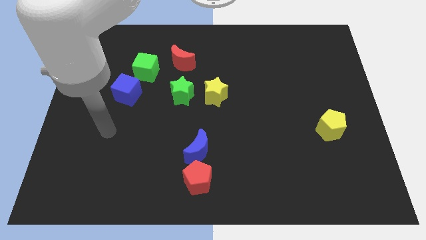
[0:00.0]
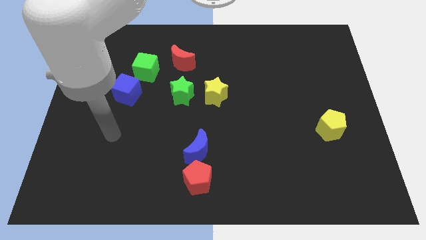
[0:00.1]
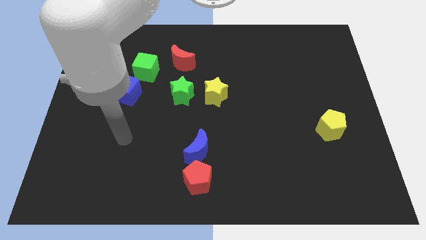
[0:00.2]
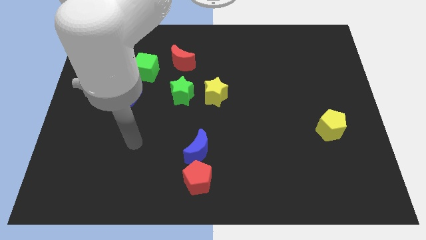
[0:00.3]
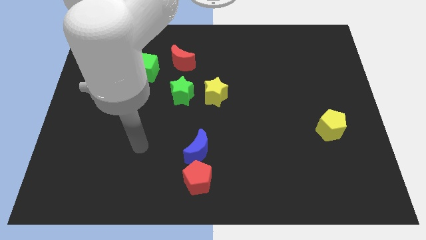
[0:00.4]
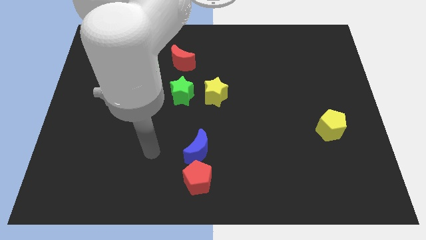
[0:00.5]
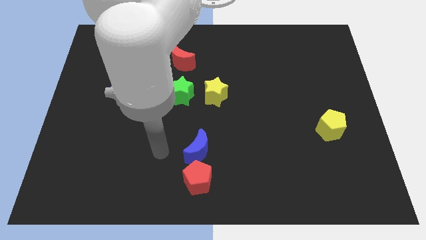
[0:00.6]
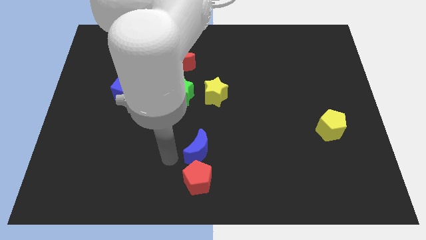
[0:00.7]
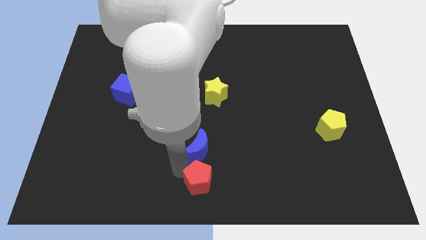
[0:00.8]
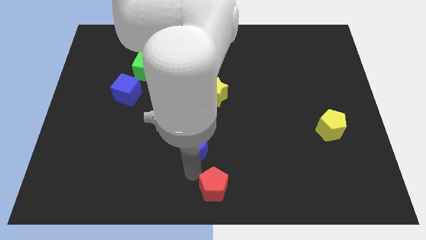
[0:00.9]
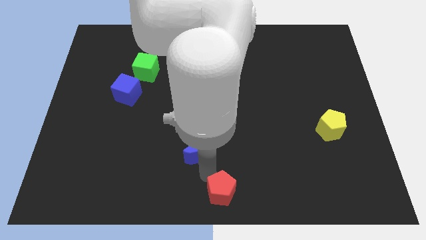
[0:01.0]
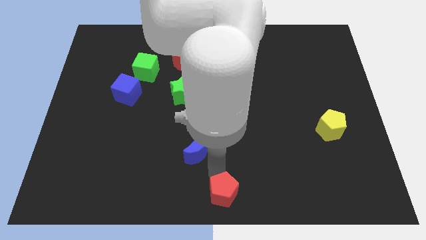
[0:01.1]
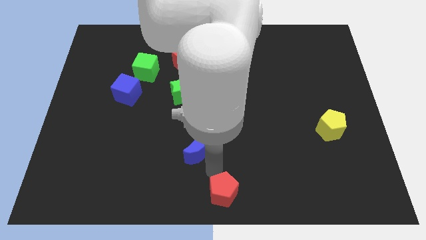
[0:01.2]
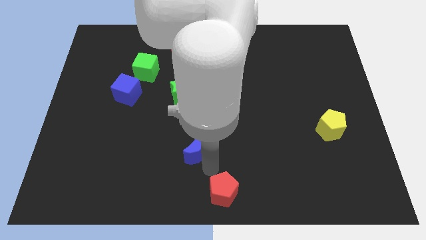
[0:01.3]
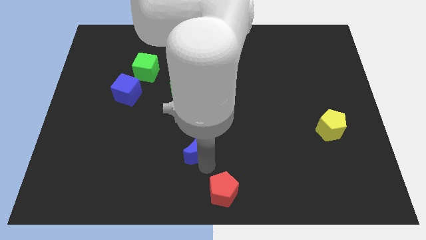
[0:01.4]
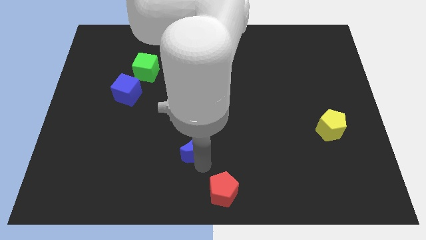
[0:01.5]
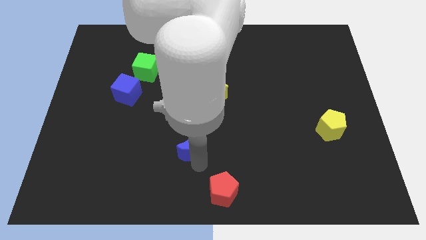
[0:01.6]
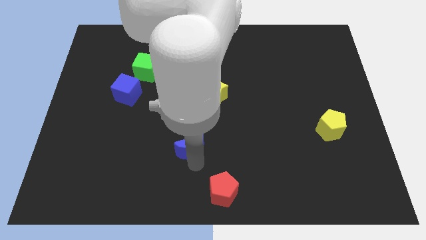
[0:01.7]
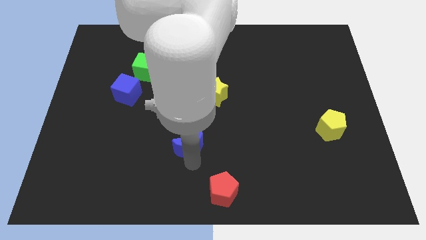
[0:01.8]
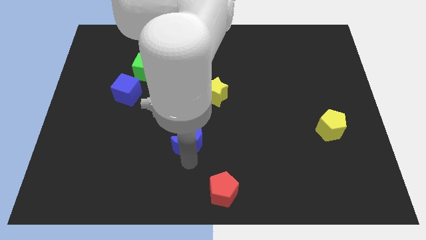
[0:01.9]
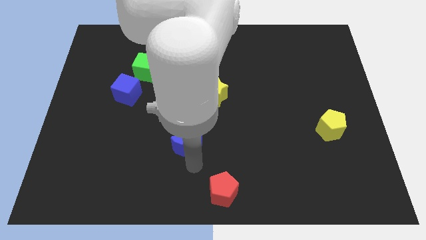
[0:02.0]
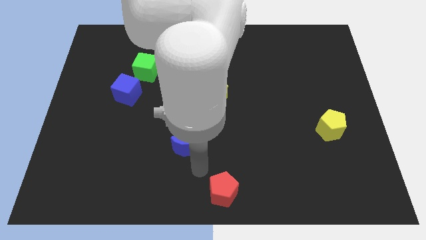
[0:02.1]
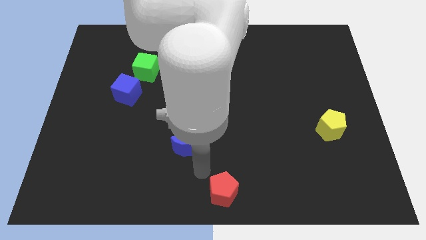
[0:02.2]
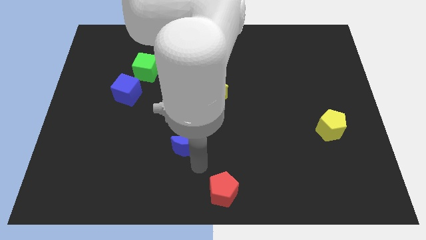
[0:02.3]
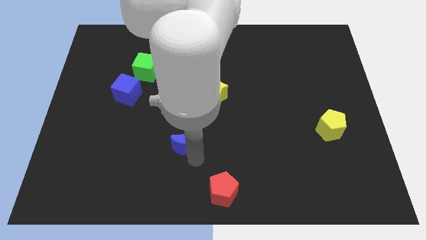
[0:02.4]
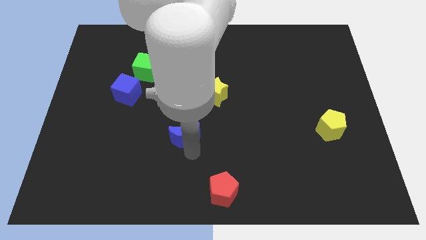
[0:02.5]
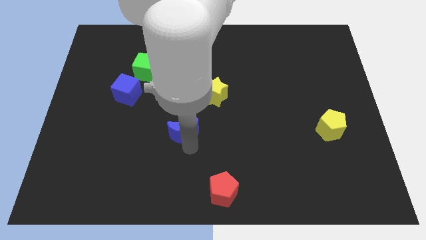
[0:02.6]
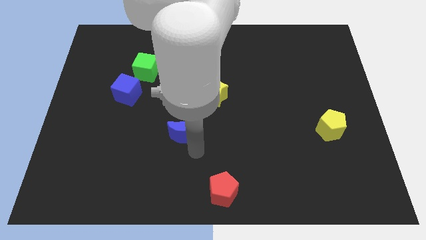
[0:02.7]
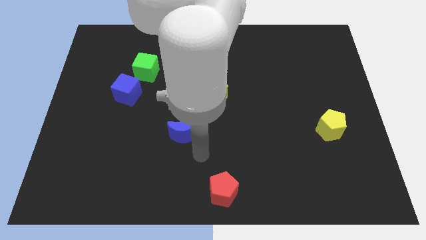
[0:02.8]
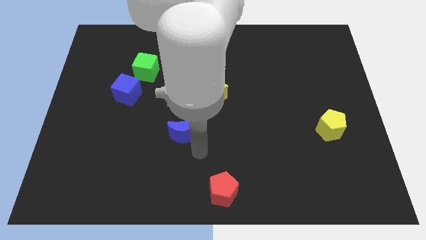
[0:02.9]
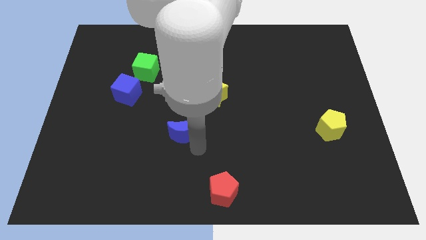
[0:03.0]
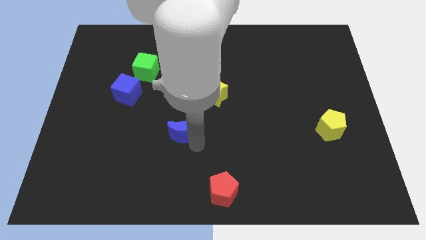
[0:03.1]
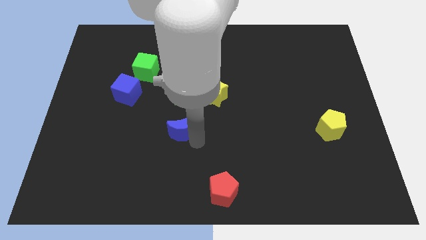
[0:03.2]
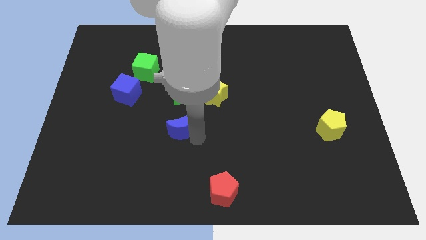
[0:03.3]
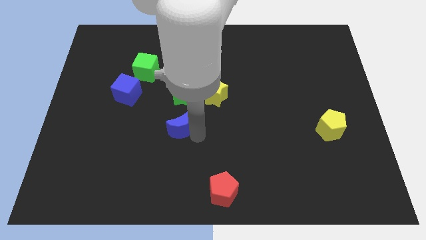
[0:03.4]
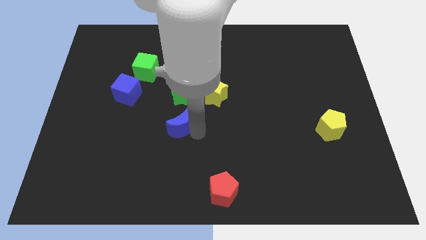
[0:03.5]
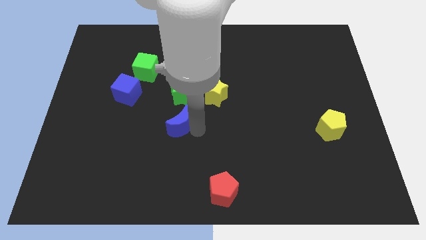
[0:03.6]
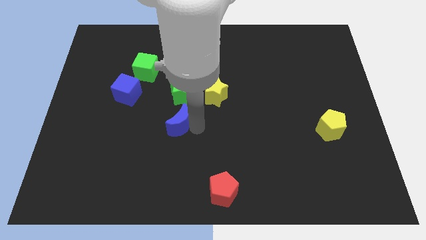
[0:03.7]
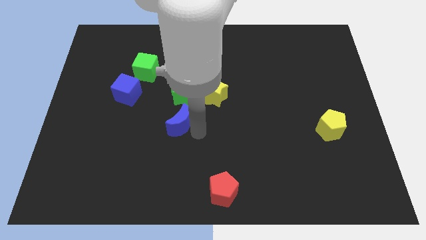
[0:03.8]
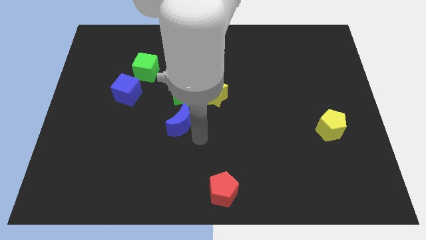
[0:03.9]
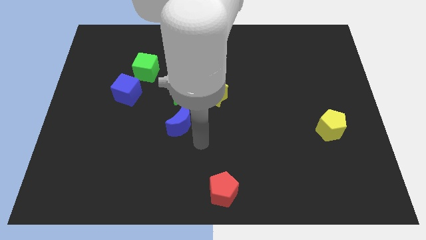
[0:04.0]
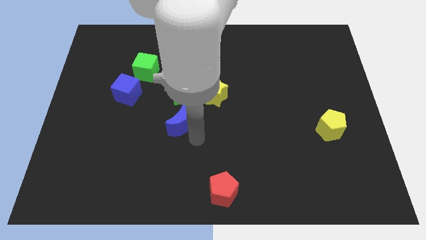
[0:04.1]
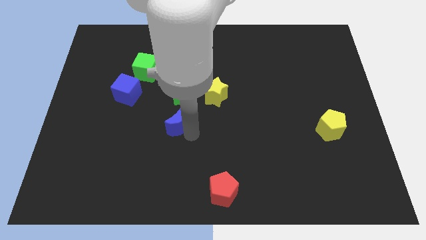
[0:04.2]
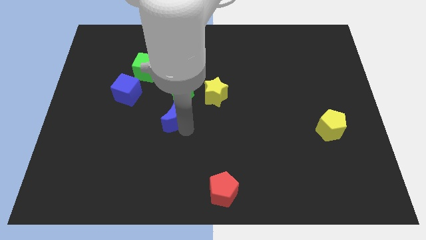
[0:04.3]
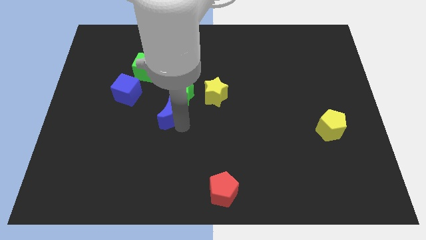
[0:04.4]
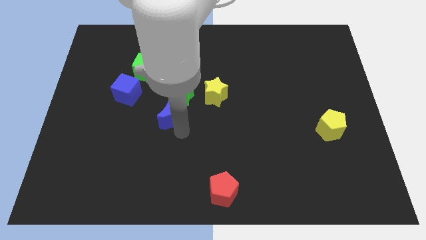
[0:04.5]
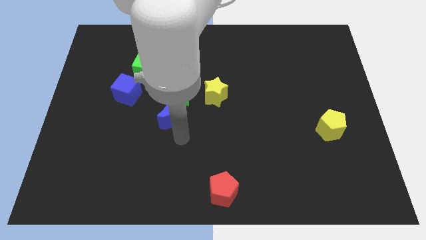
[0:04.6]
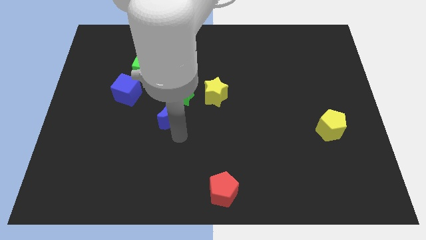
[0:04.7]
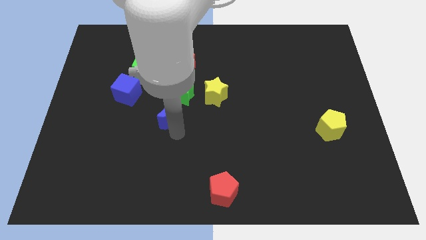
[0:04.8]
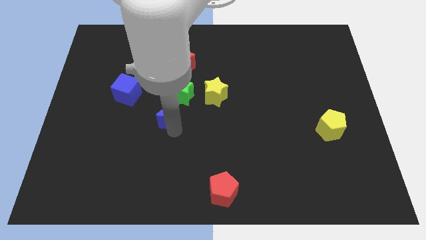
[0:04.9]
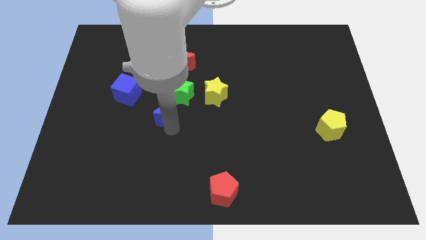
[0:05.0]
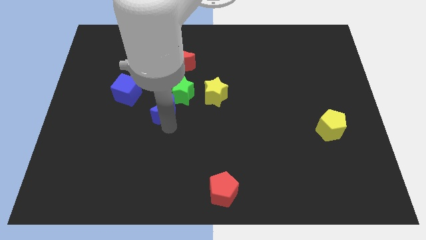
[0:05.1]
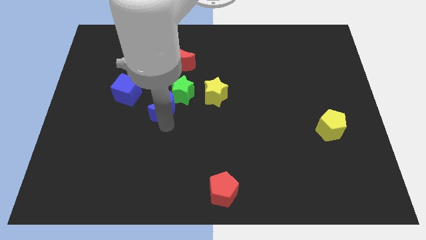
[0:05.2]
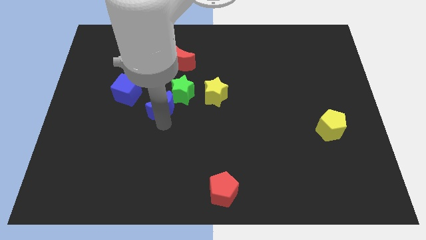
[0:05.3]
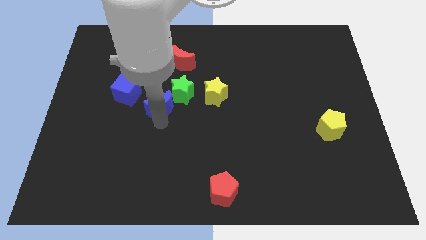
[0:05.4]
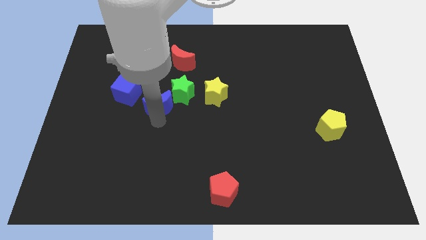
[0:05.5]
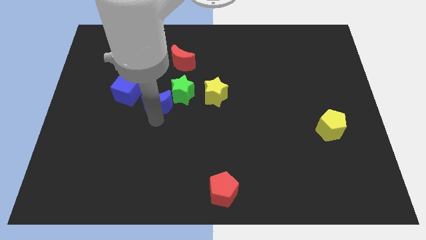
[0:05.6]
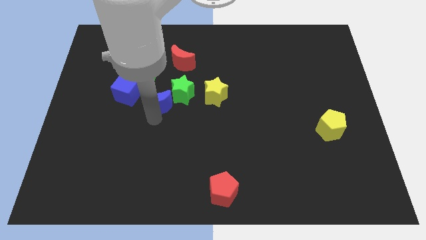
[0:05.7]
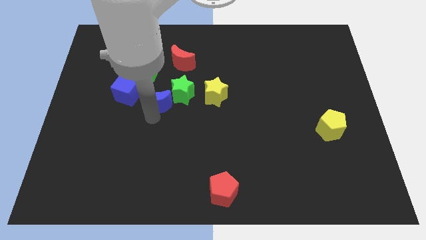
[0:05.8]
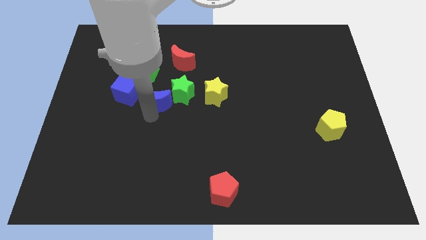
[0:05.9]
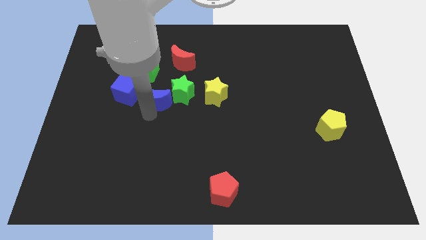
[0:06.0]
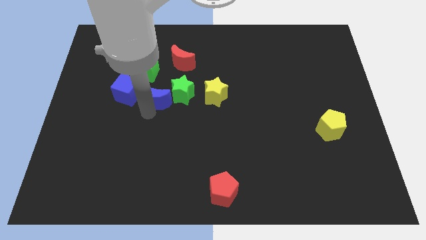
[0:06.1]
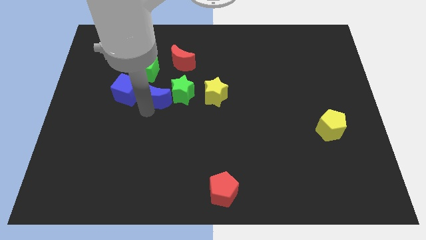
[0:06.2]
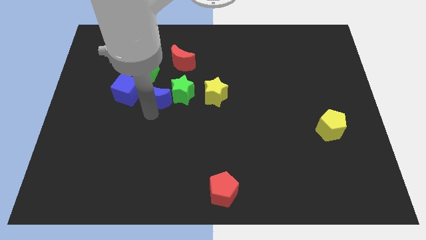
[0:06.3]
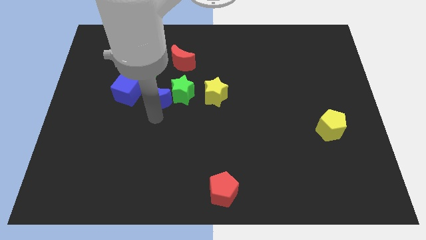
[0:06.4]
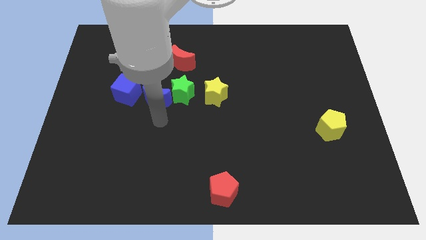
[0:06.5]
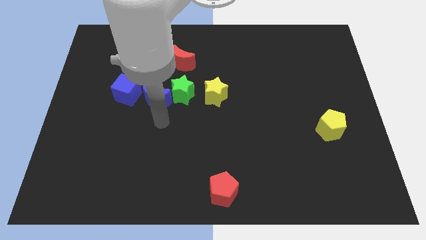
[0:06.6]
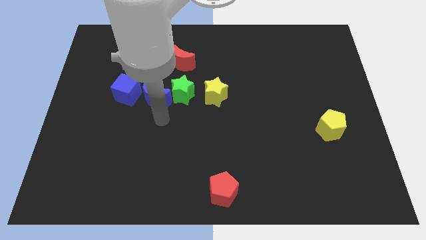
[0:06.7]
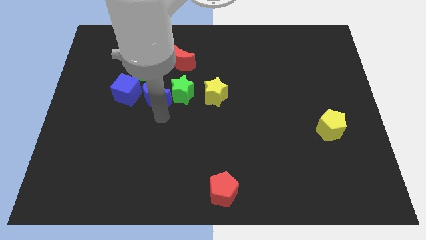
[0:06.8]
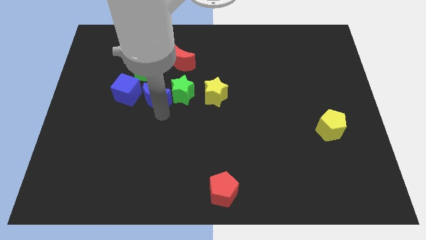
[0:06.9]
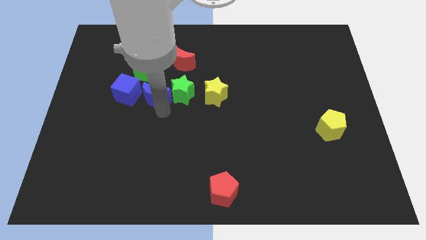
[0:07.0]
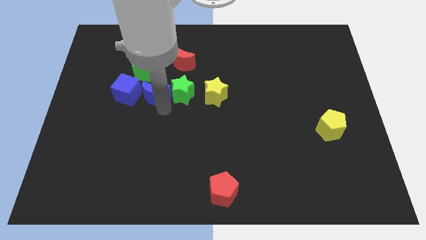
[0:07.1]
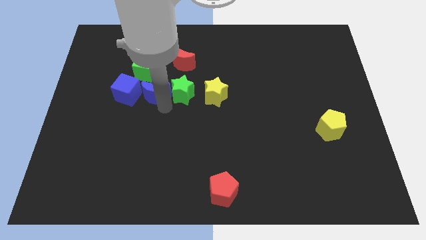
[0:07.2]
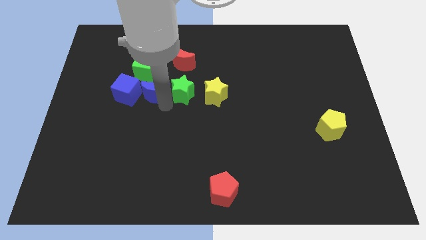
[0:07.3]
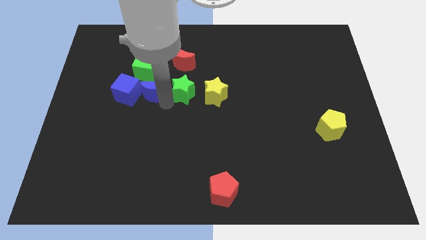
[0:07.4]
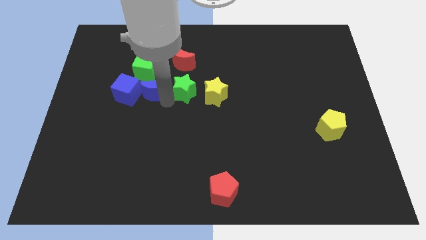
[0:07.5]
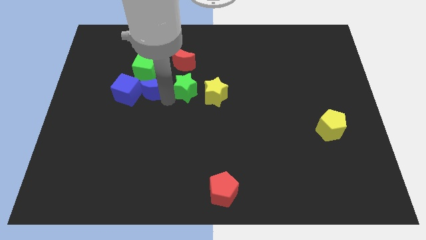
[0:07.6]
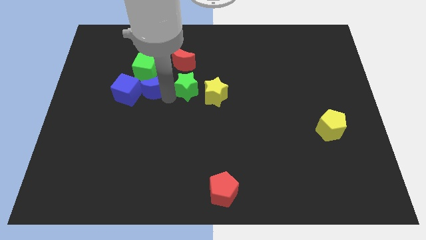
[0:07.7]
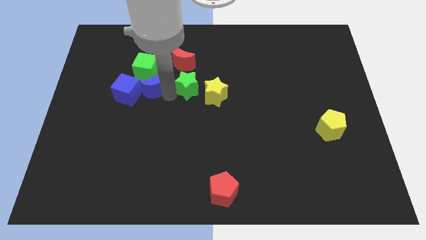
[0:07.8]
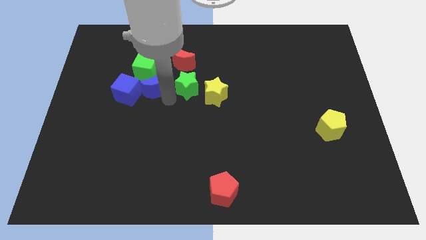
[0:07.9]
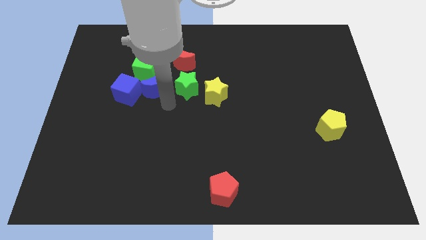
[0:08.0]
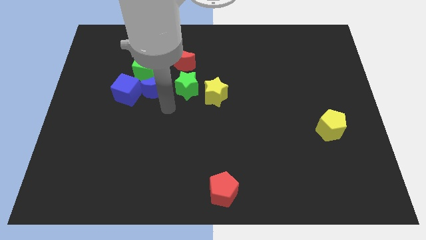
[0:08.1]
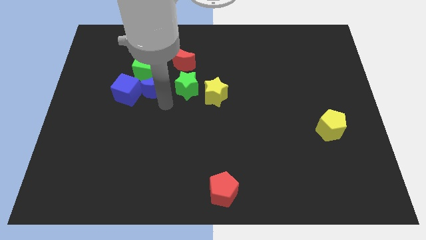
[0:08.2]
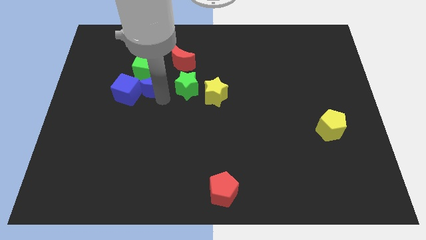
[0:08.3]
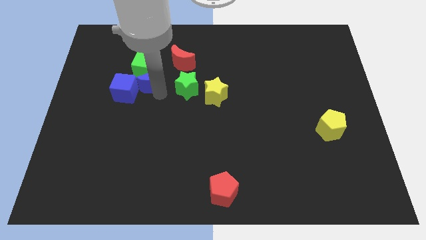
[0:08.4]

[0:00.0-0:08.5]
put the blue moon next to the green cube
